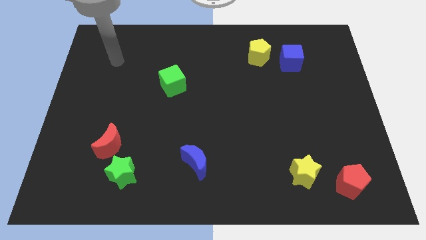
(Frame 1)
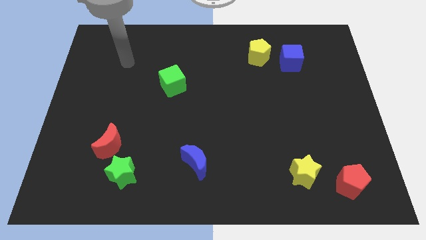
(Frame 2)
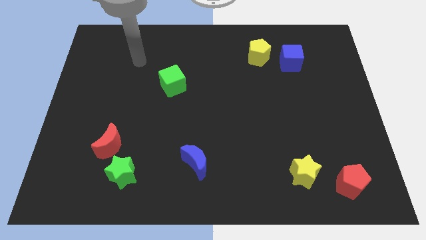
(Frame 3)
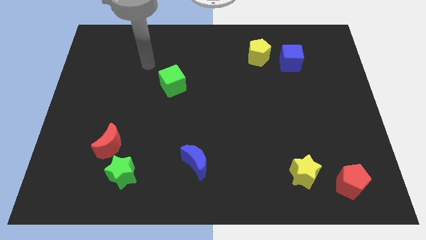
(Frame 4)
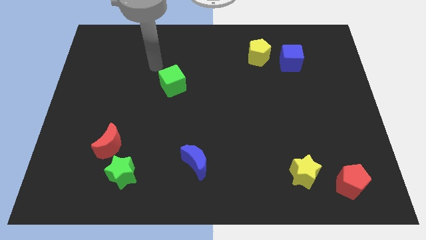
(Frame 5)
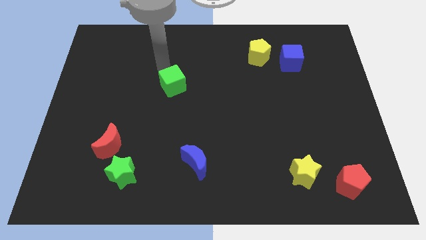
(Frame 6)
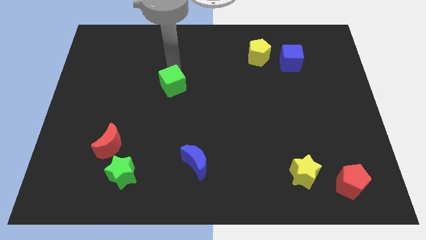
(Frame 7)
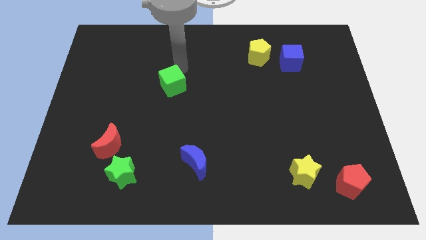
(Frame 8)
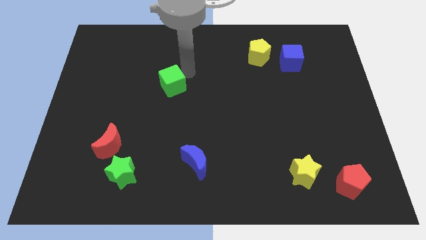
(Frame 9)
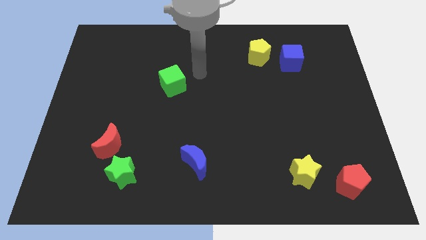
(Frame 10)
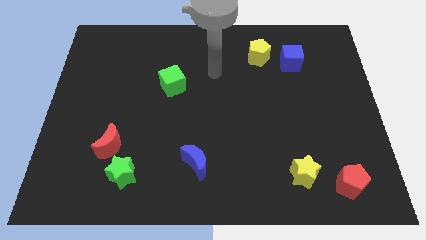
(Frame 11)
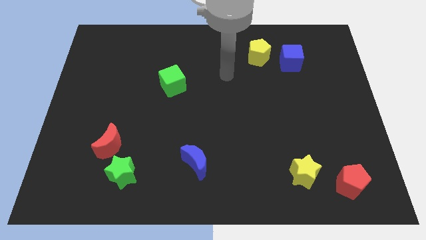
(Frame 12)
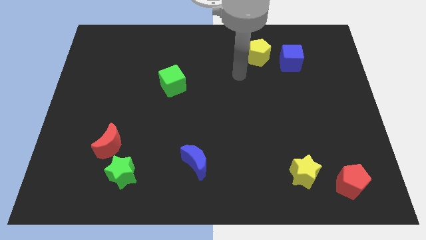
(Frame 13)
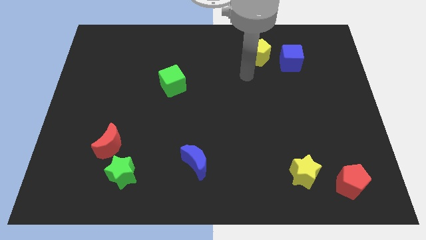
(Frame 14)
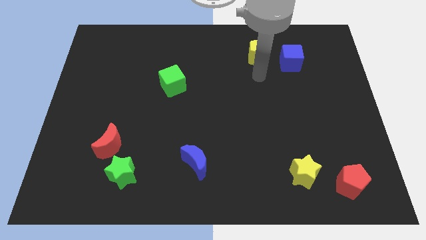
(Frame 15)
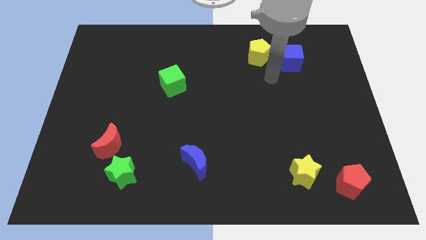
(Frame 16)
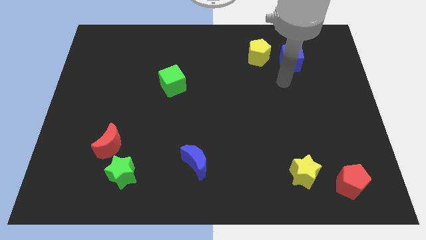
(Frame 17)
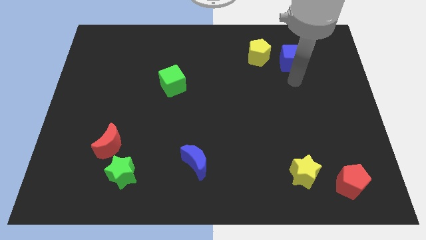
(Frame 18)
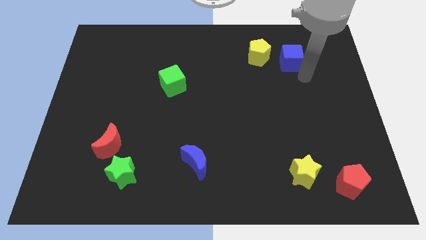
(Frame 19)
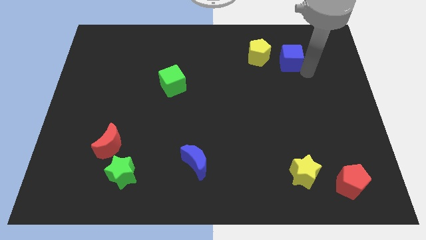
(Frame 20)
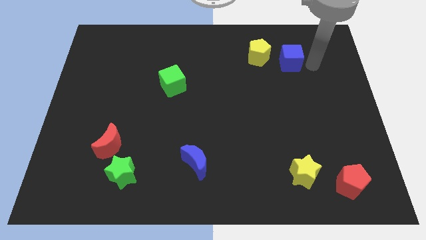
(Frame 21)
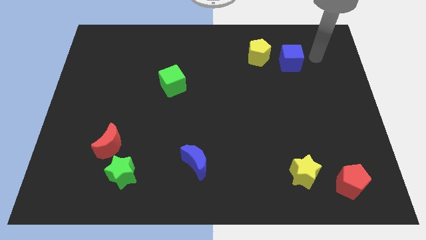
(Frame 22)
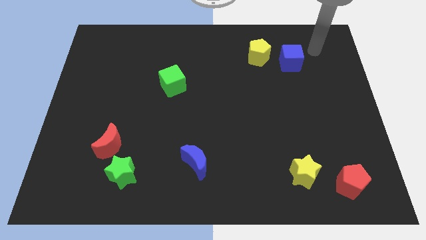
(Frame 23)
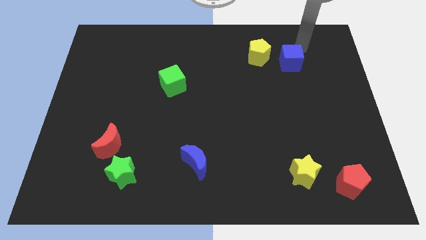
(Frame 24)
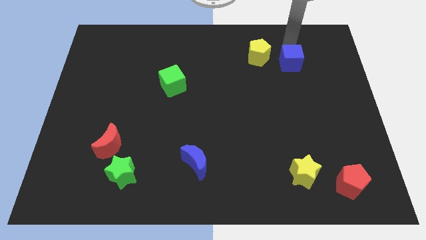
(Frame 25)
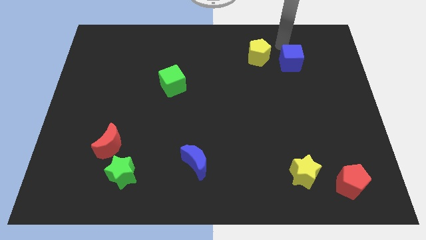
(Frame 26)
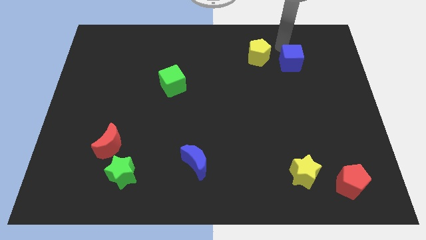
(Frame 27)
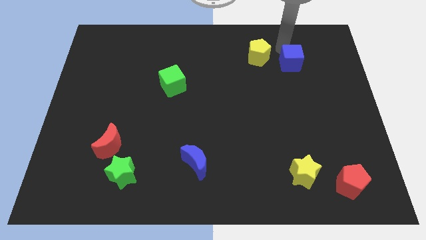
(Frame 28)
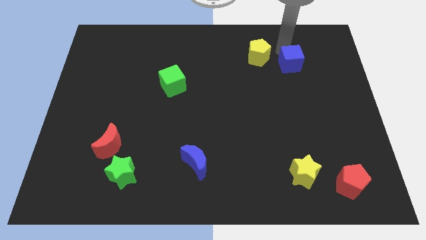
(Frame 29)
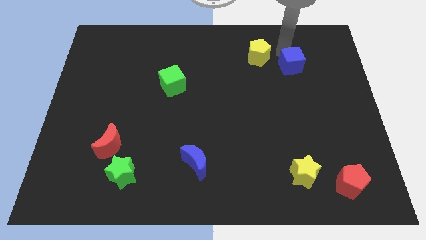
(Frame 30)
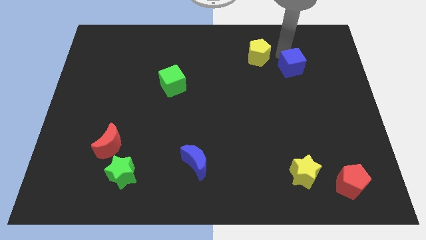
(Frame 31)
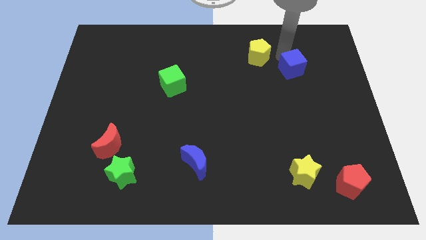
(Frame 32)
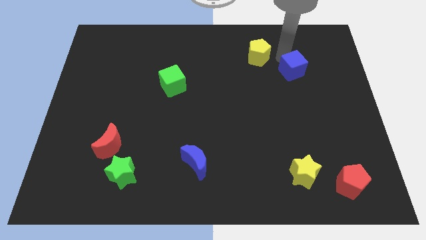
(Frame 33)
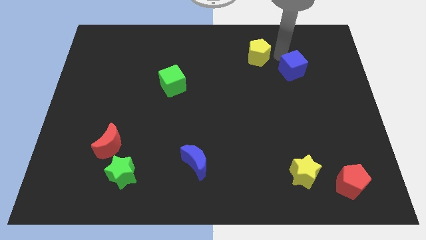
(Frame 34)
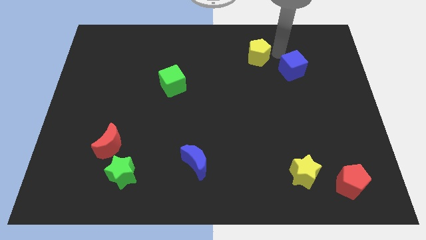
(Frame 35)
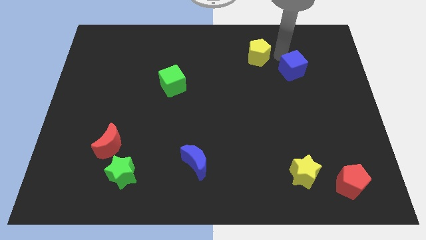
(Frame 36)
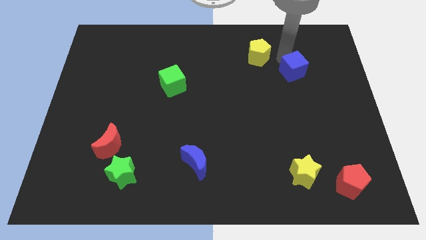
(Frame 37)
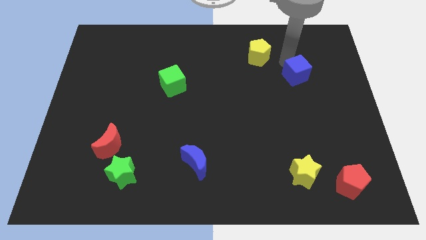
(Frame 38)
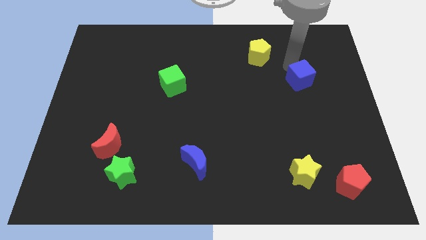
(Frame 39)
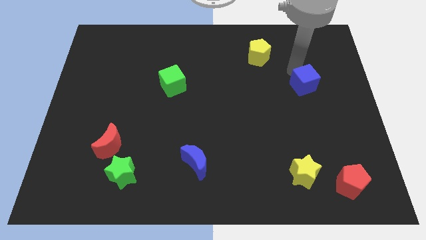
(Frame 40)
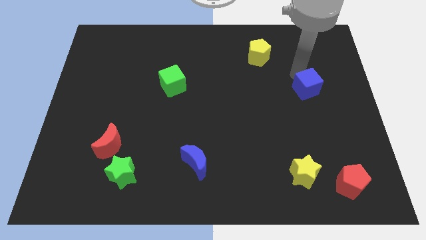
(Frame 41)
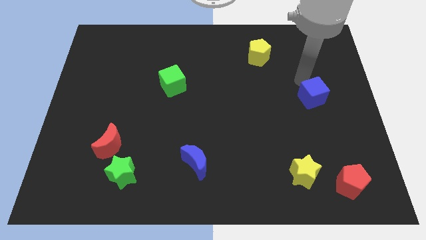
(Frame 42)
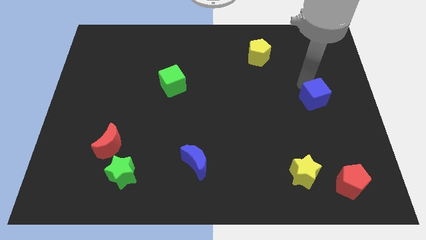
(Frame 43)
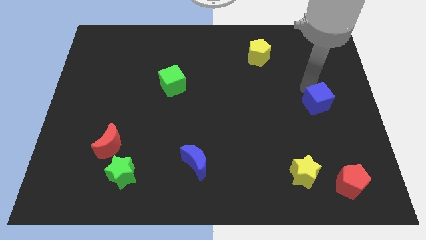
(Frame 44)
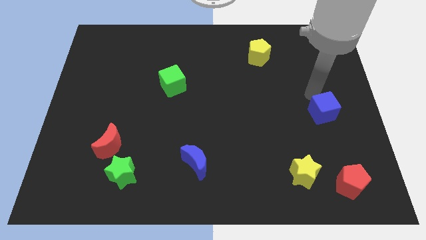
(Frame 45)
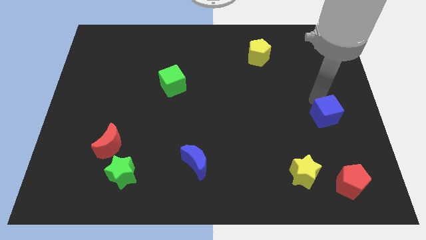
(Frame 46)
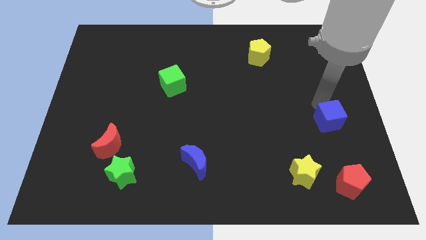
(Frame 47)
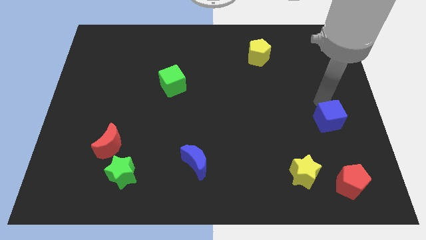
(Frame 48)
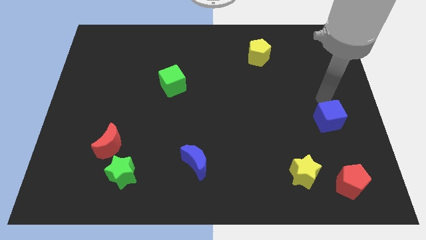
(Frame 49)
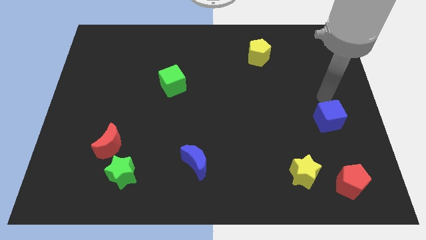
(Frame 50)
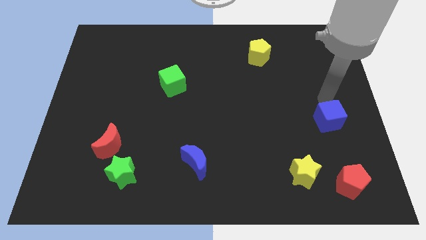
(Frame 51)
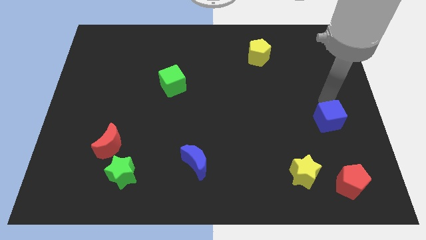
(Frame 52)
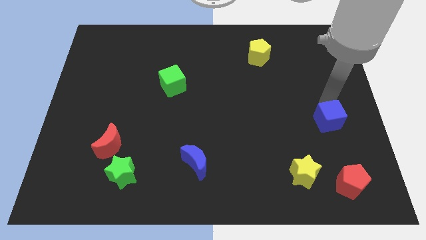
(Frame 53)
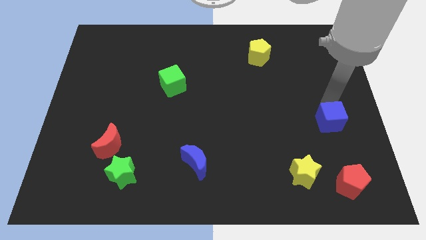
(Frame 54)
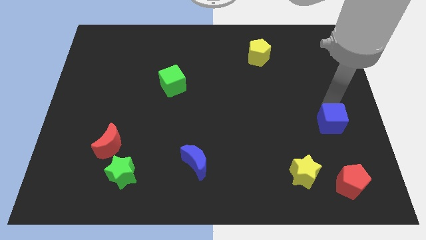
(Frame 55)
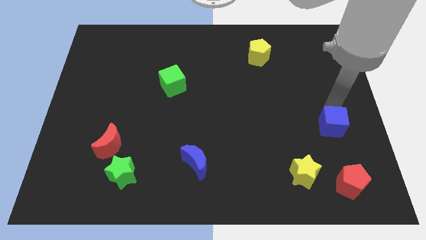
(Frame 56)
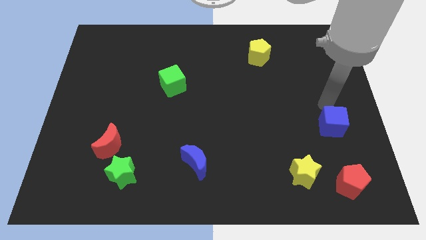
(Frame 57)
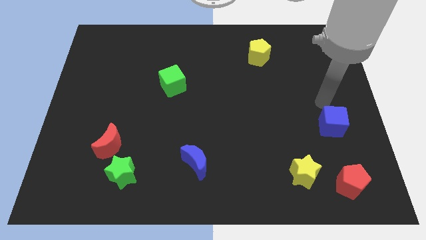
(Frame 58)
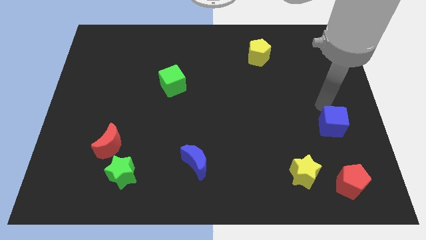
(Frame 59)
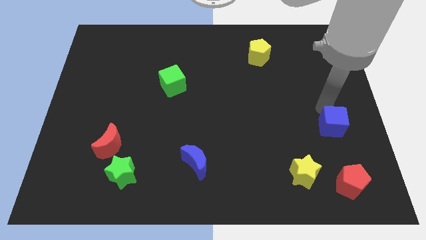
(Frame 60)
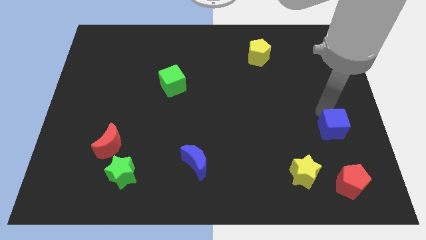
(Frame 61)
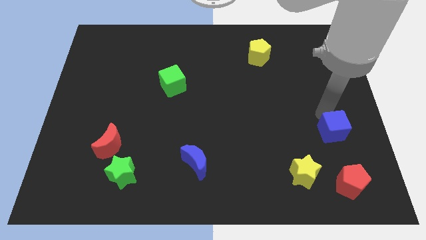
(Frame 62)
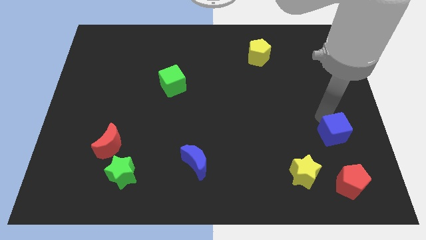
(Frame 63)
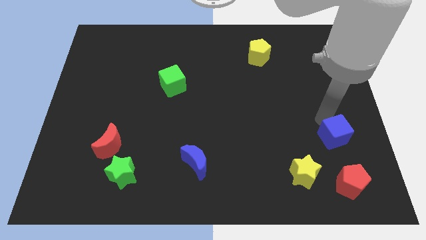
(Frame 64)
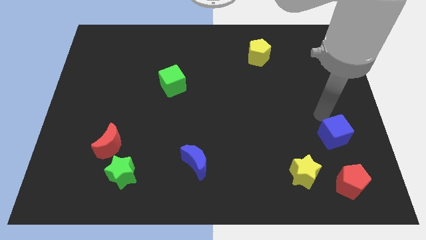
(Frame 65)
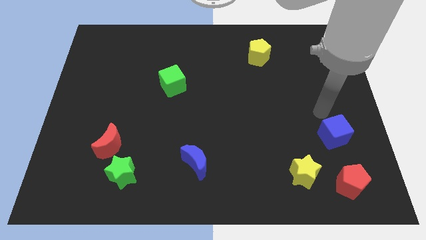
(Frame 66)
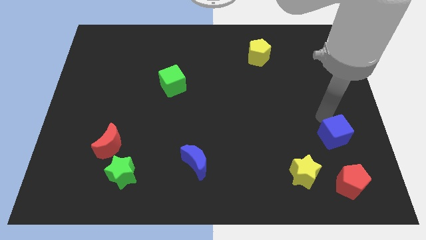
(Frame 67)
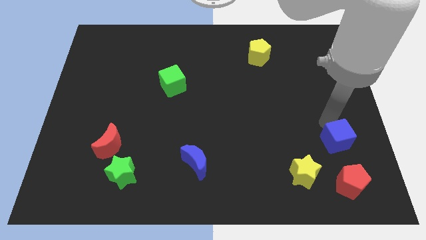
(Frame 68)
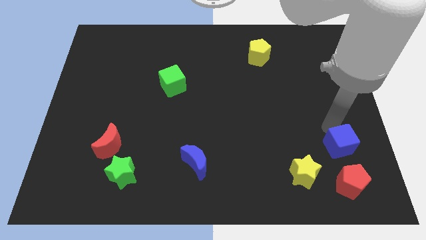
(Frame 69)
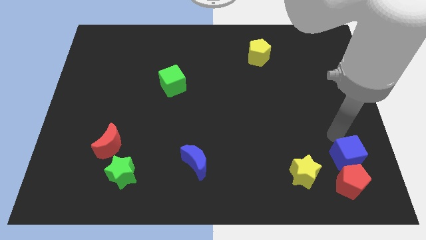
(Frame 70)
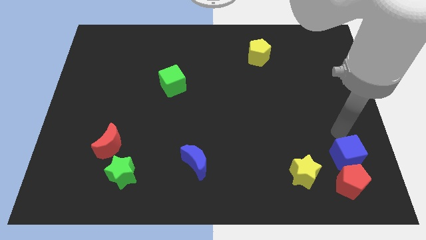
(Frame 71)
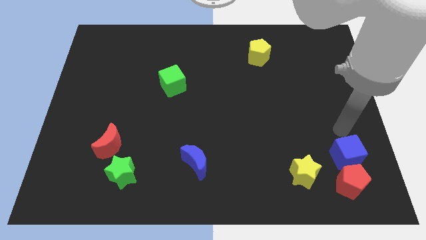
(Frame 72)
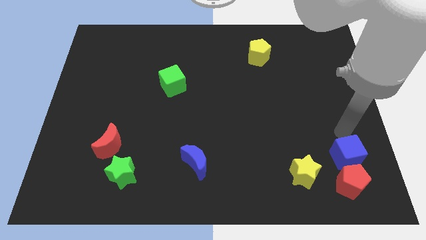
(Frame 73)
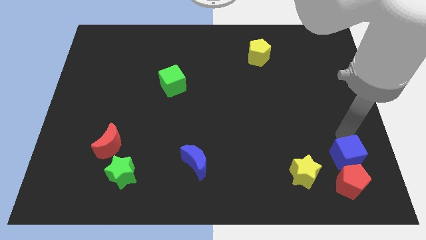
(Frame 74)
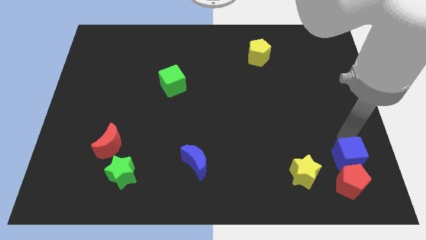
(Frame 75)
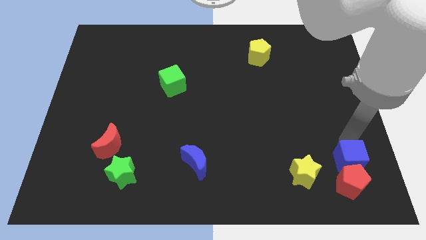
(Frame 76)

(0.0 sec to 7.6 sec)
push the blue cube close to the red pentagon
